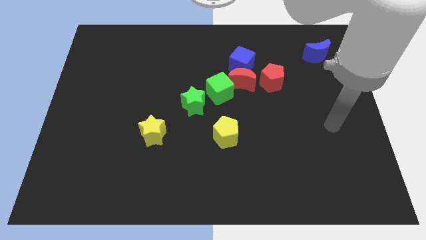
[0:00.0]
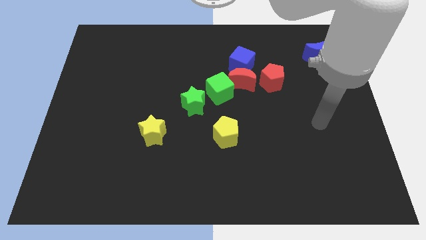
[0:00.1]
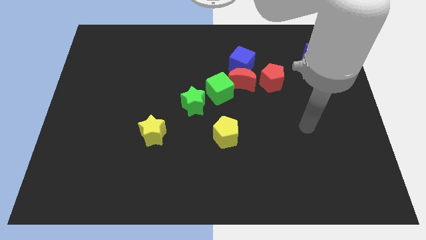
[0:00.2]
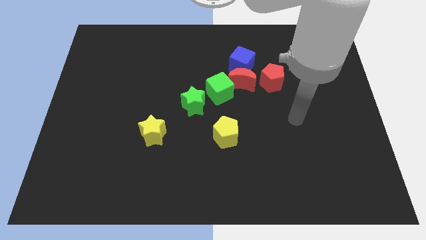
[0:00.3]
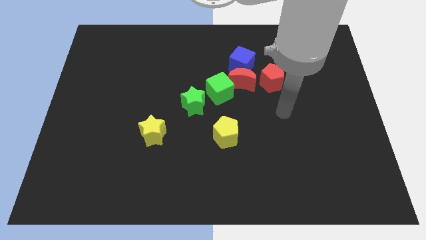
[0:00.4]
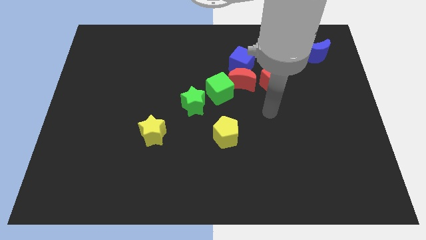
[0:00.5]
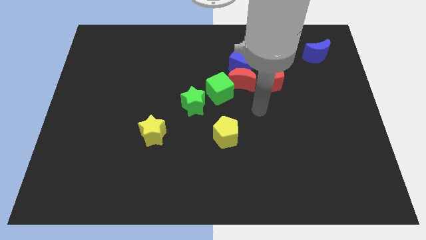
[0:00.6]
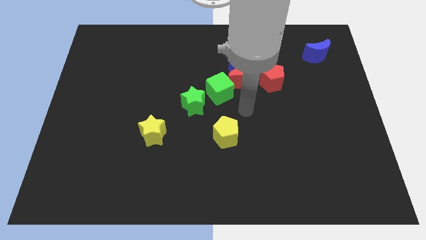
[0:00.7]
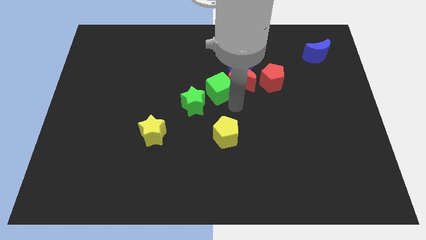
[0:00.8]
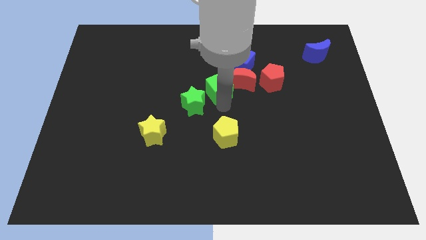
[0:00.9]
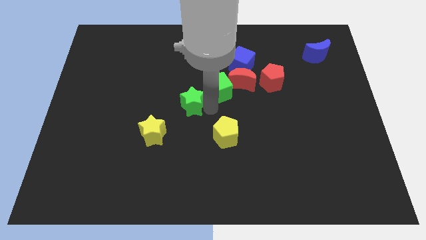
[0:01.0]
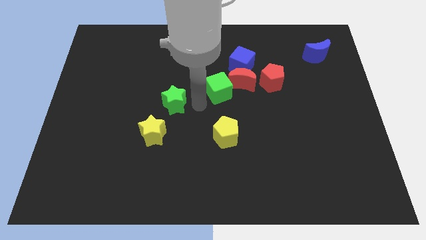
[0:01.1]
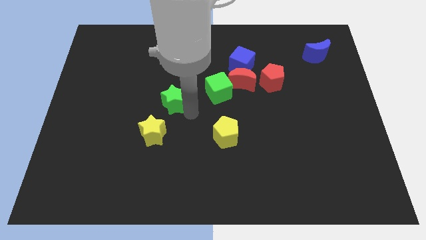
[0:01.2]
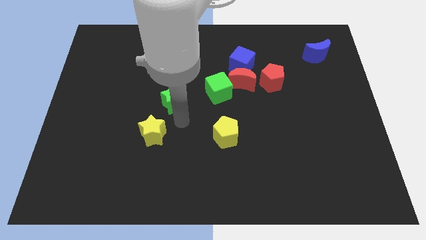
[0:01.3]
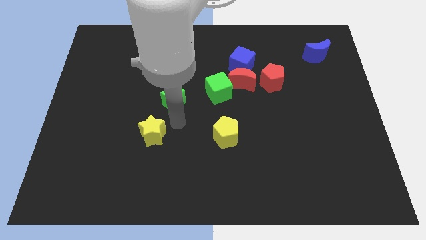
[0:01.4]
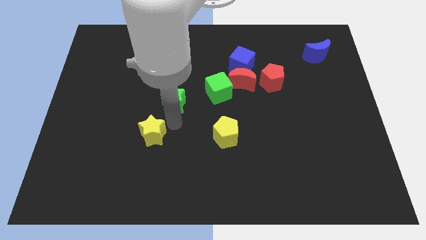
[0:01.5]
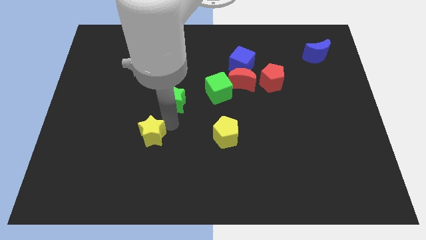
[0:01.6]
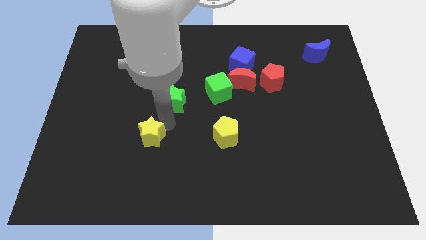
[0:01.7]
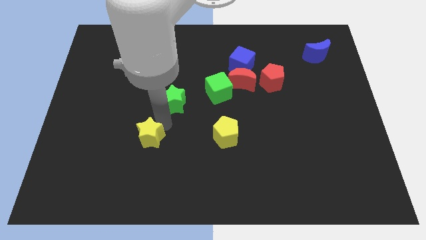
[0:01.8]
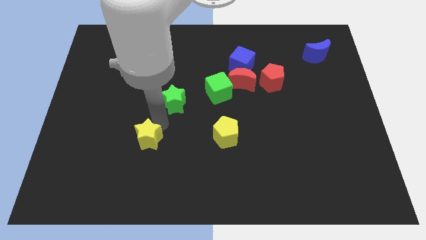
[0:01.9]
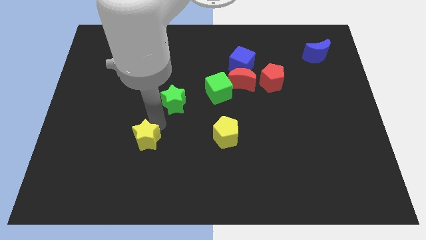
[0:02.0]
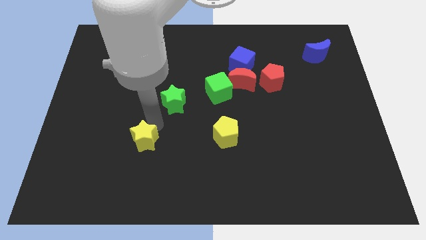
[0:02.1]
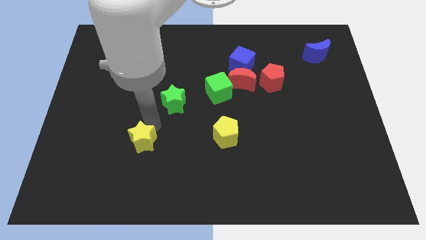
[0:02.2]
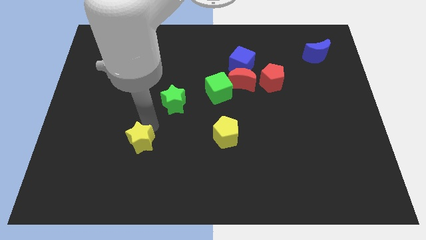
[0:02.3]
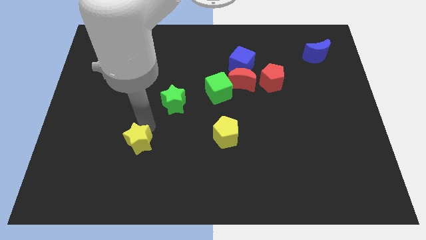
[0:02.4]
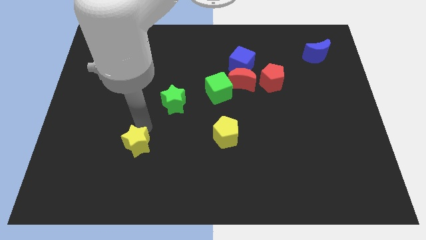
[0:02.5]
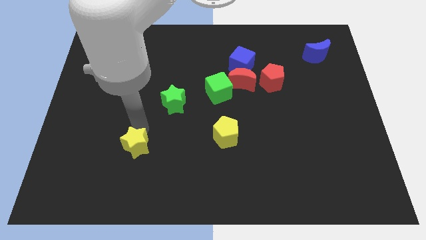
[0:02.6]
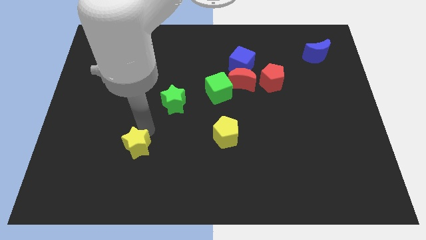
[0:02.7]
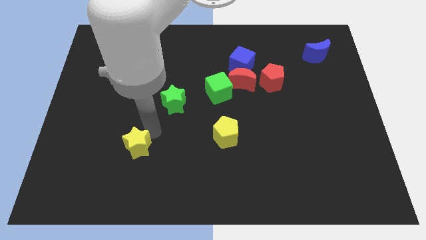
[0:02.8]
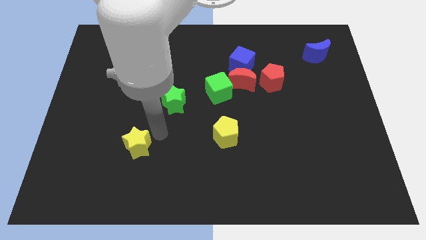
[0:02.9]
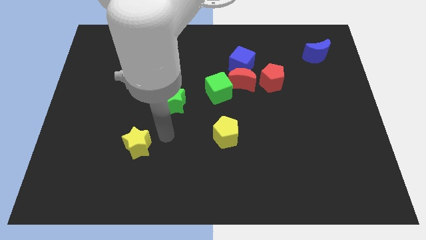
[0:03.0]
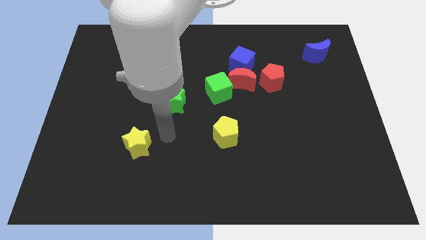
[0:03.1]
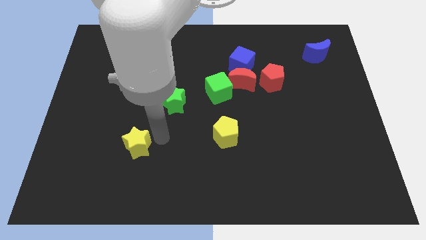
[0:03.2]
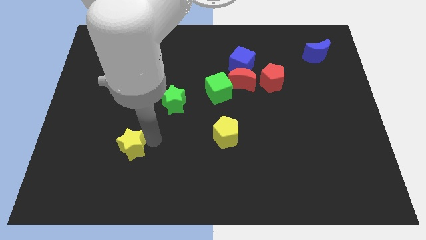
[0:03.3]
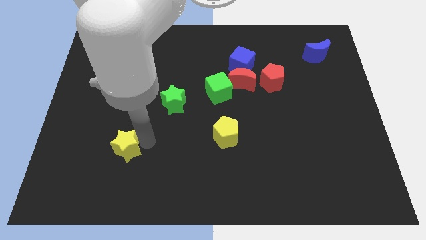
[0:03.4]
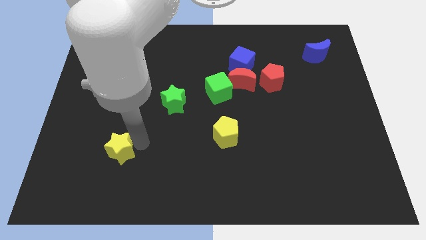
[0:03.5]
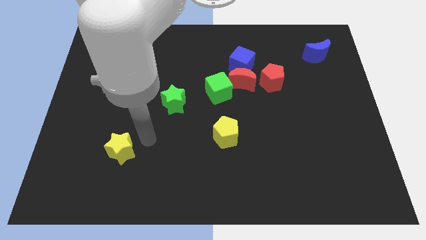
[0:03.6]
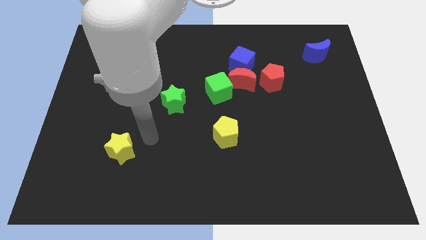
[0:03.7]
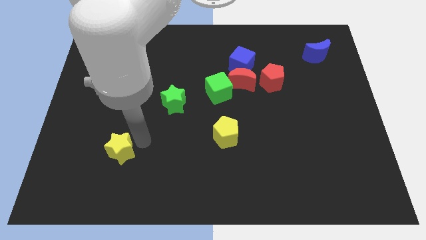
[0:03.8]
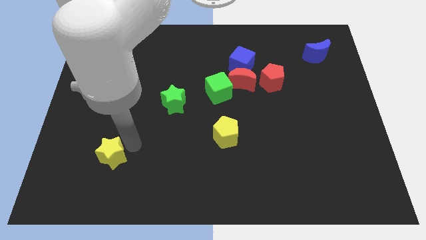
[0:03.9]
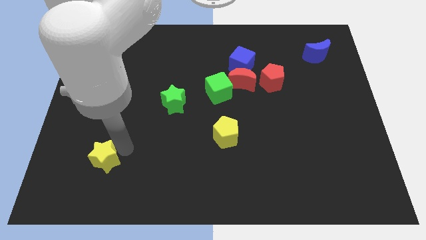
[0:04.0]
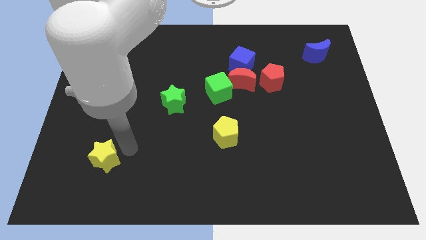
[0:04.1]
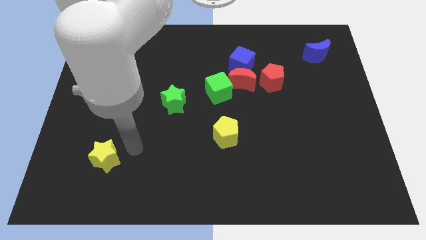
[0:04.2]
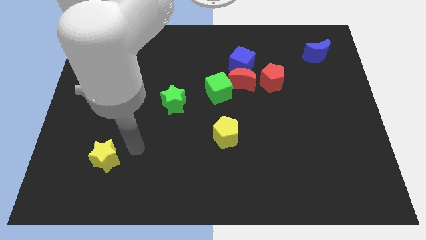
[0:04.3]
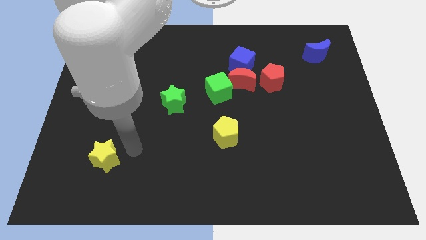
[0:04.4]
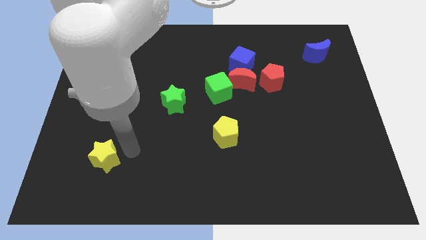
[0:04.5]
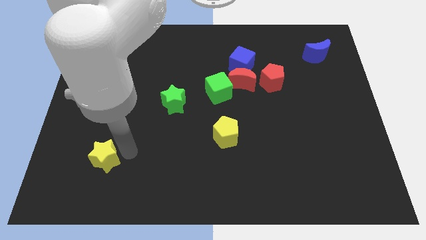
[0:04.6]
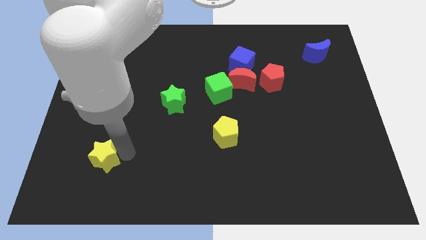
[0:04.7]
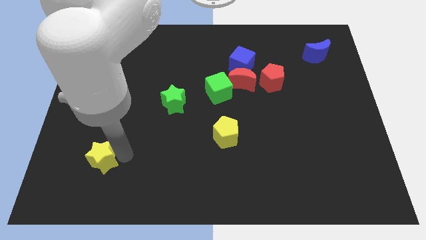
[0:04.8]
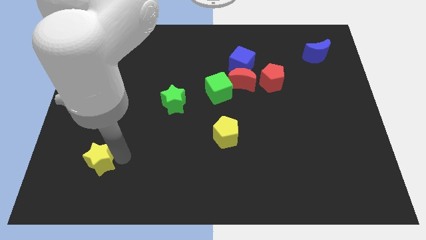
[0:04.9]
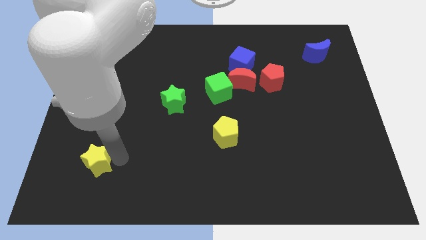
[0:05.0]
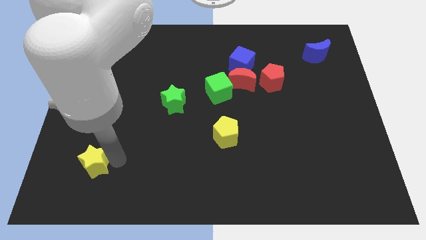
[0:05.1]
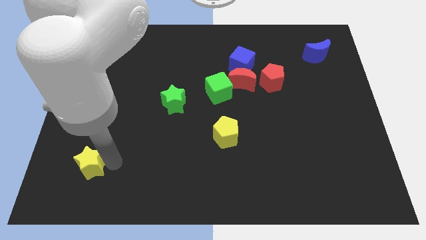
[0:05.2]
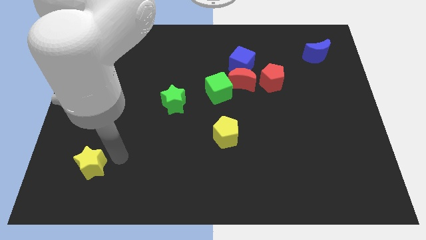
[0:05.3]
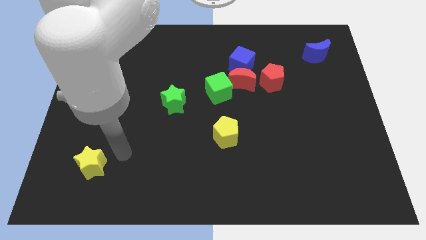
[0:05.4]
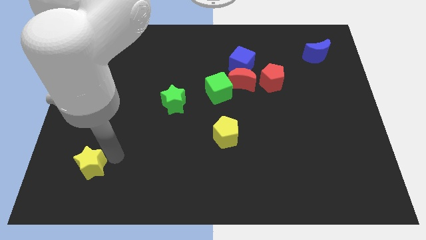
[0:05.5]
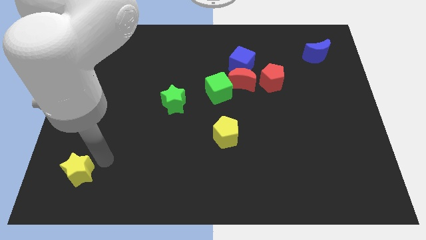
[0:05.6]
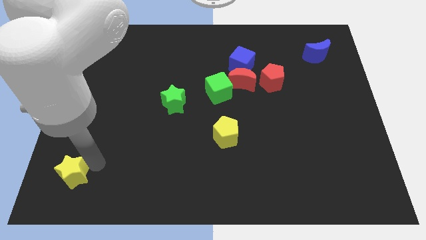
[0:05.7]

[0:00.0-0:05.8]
put the yellow star to the bottom left
